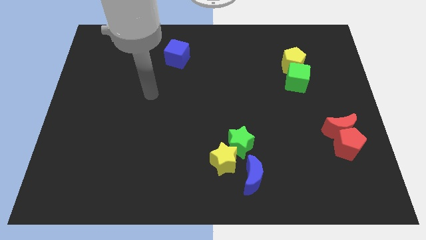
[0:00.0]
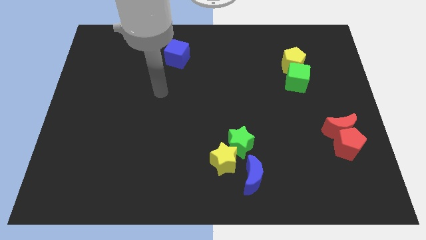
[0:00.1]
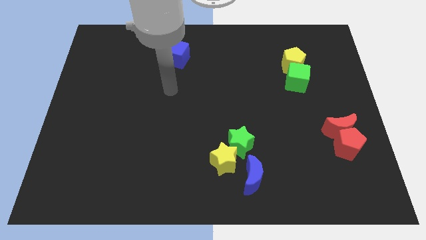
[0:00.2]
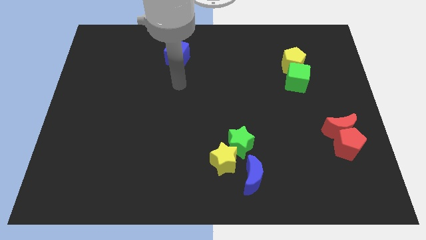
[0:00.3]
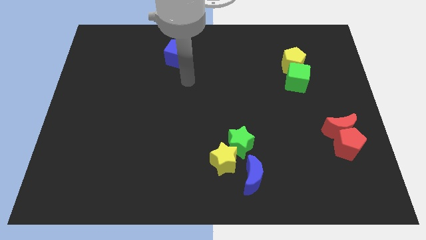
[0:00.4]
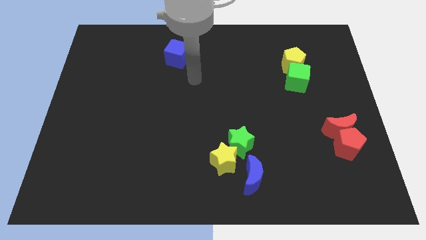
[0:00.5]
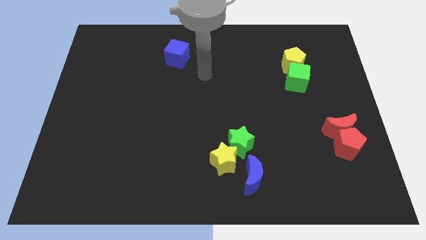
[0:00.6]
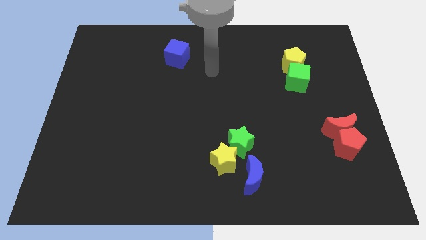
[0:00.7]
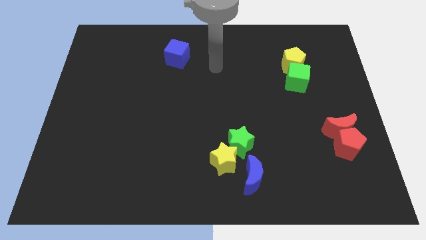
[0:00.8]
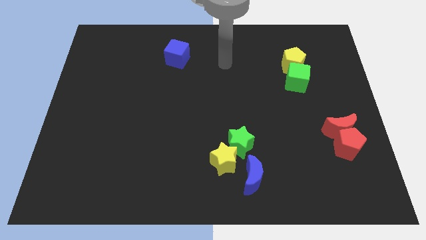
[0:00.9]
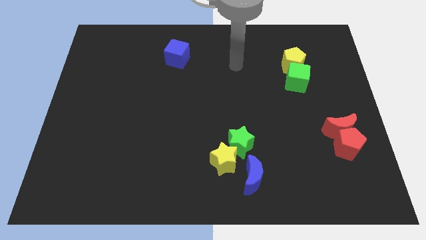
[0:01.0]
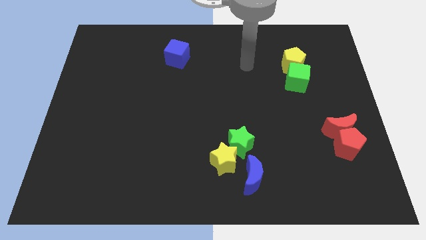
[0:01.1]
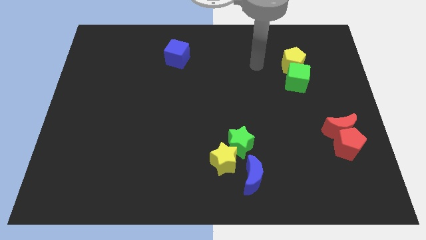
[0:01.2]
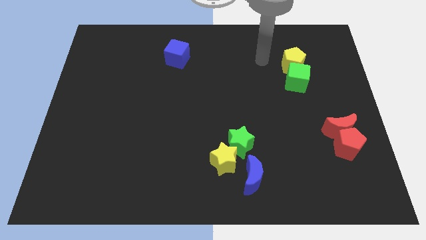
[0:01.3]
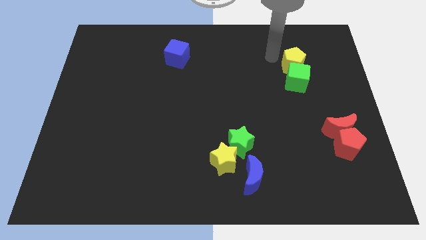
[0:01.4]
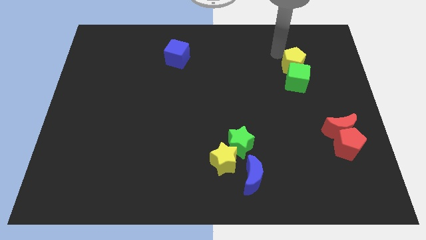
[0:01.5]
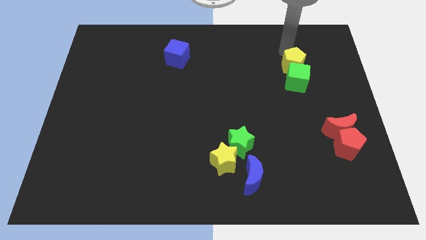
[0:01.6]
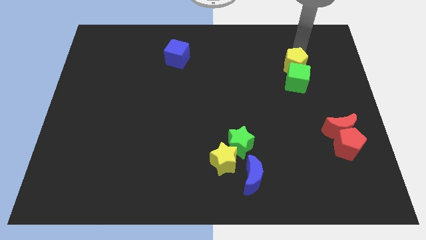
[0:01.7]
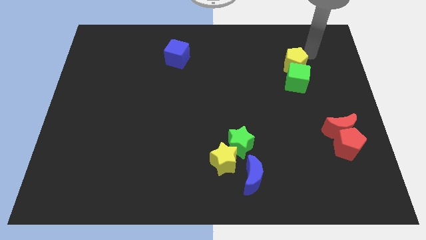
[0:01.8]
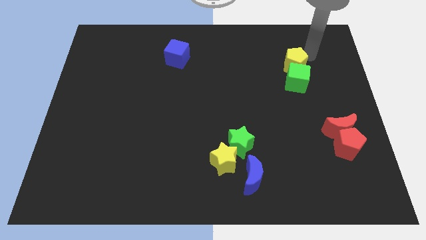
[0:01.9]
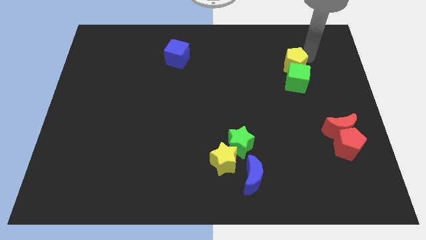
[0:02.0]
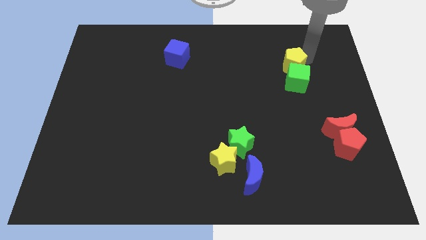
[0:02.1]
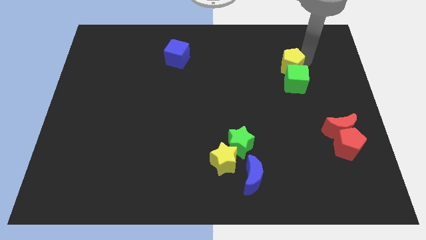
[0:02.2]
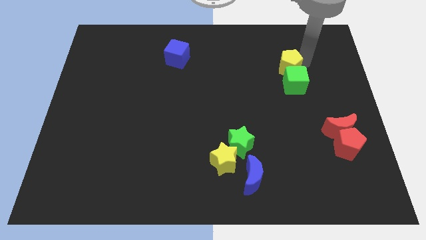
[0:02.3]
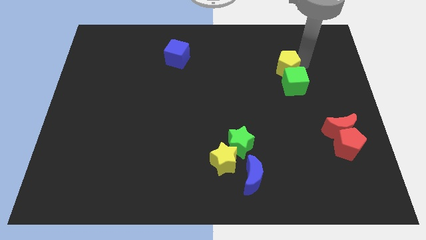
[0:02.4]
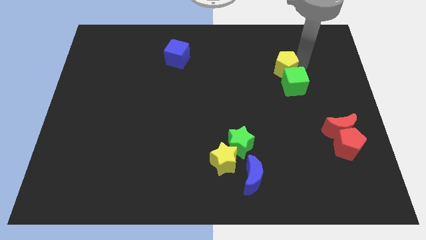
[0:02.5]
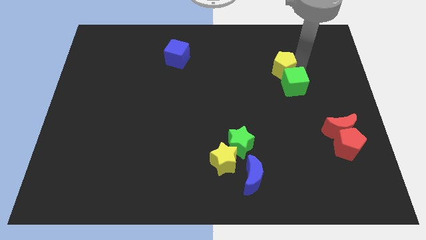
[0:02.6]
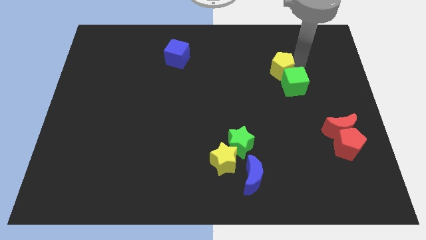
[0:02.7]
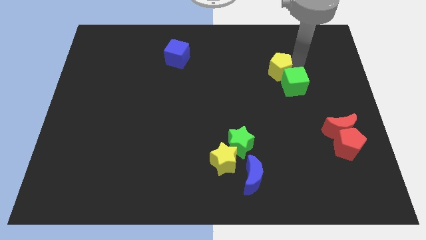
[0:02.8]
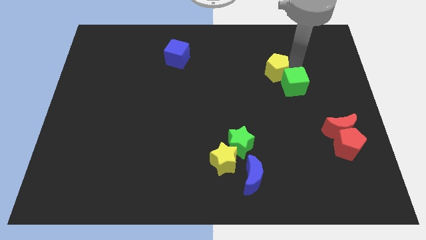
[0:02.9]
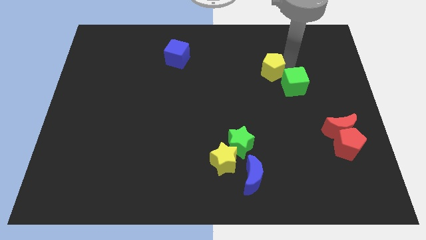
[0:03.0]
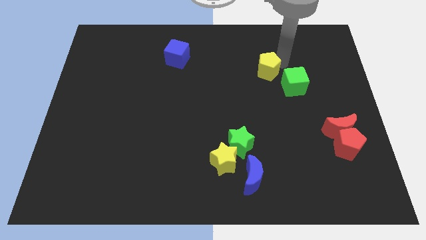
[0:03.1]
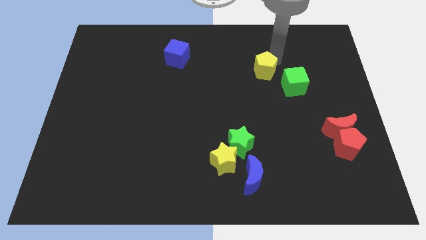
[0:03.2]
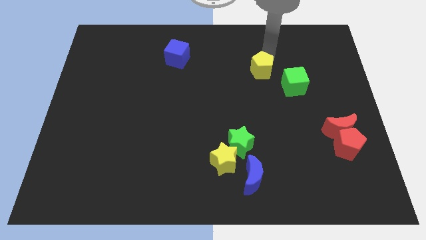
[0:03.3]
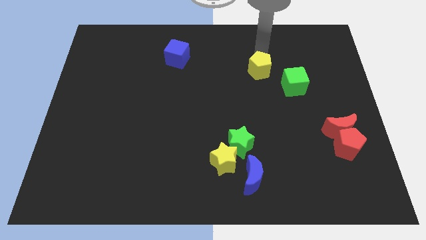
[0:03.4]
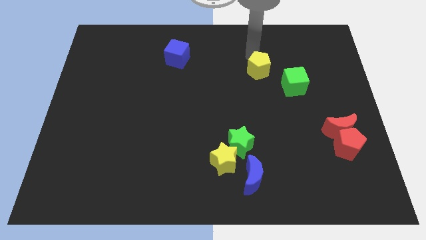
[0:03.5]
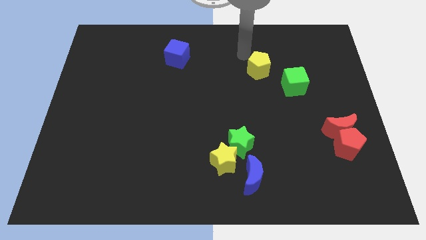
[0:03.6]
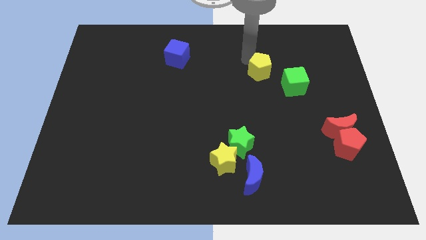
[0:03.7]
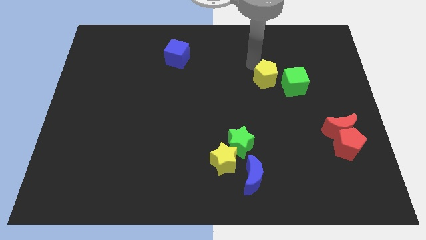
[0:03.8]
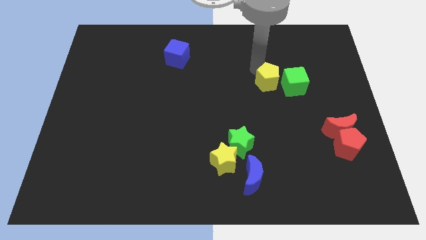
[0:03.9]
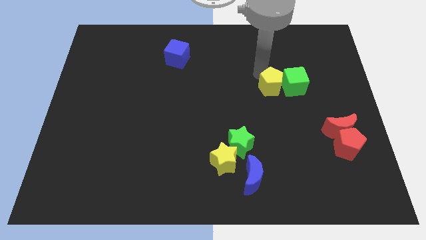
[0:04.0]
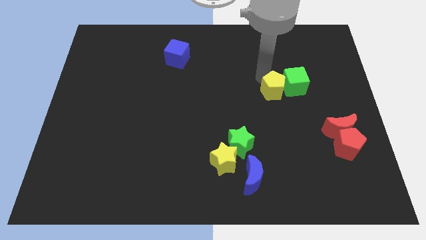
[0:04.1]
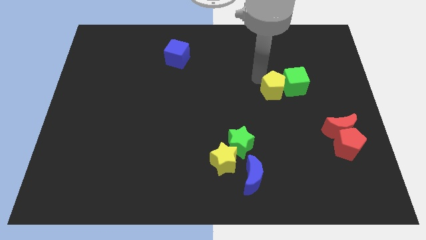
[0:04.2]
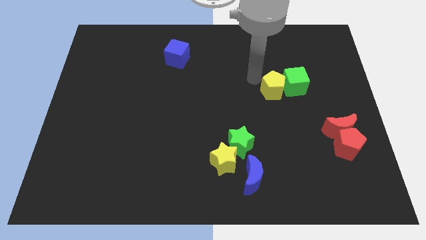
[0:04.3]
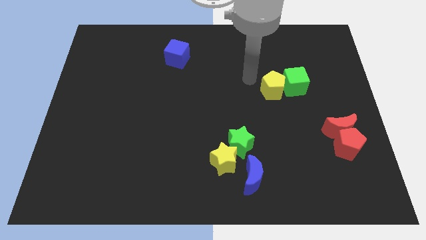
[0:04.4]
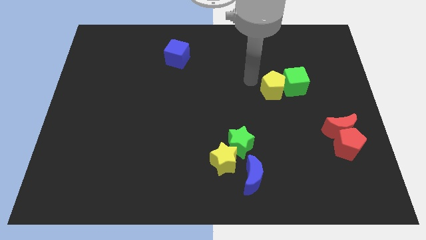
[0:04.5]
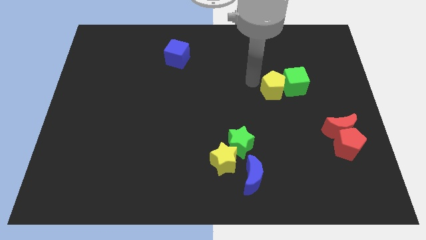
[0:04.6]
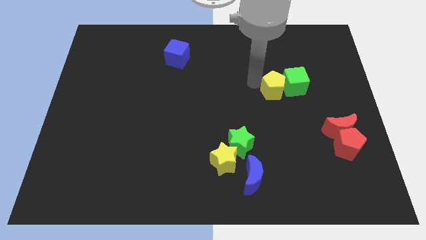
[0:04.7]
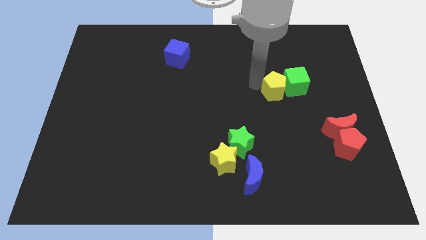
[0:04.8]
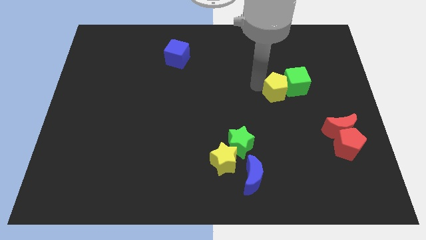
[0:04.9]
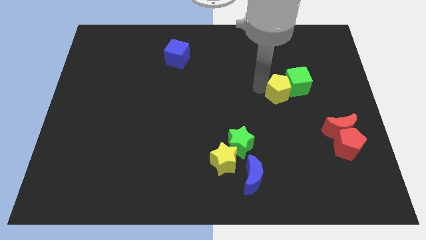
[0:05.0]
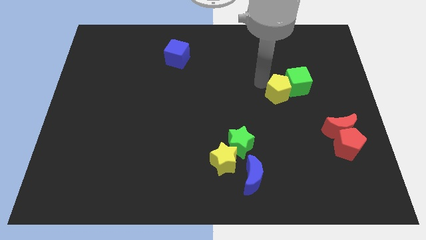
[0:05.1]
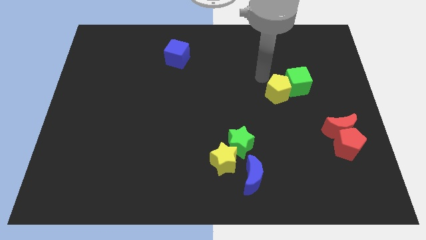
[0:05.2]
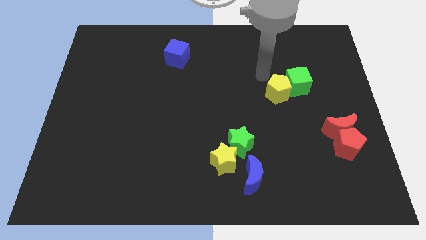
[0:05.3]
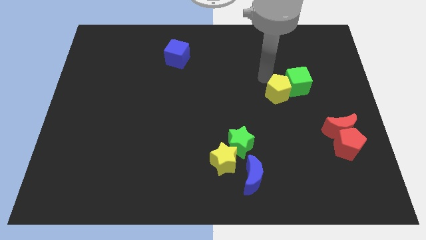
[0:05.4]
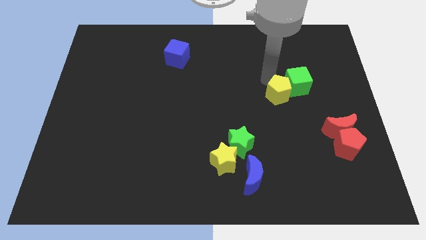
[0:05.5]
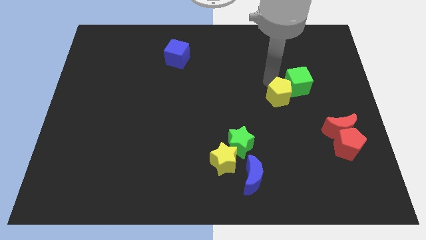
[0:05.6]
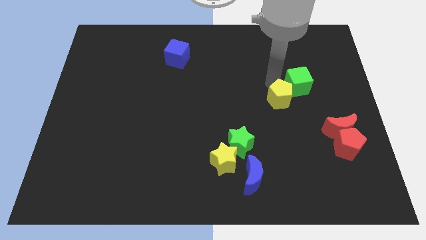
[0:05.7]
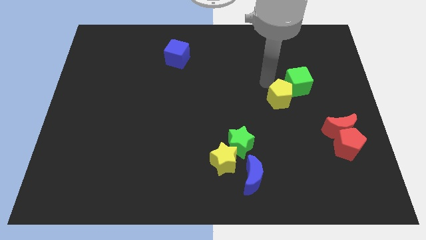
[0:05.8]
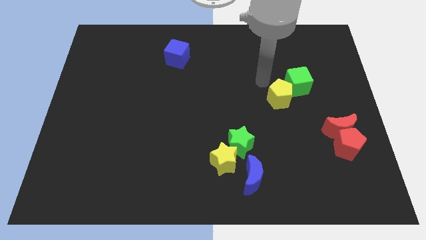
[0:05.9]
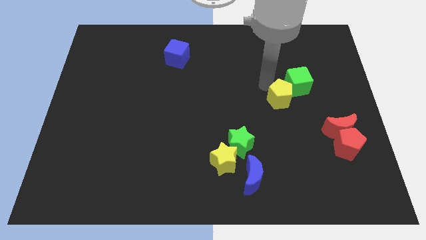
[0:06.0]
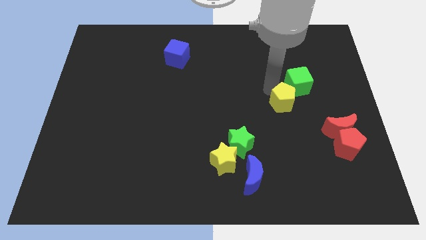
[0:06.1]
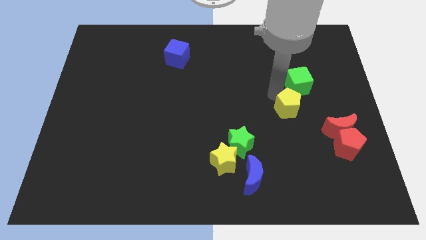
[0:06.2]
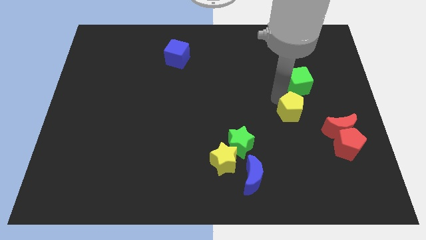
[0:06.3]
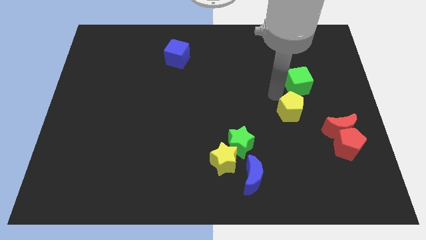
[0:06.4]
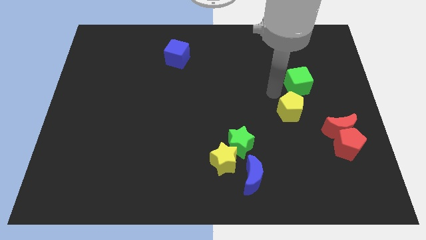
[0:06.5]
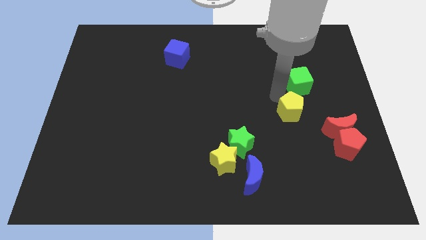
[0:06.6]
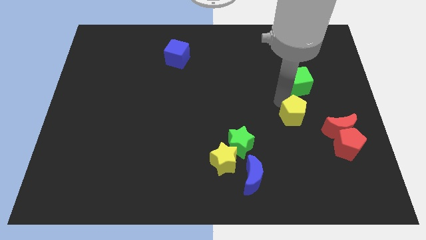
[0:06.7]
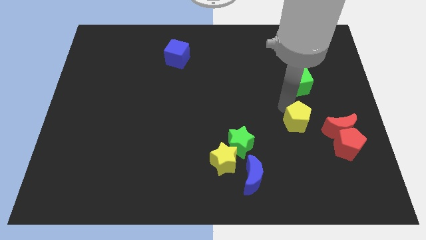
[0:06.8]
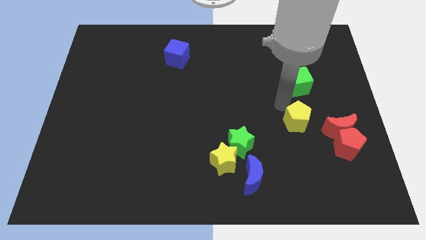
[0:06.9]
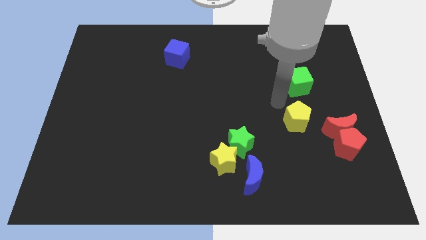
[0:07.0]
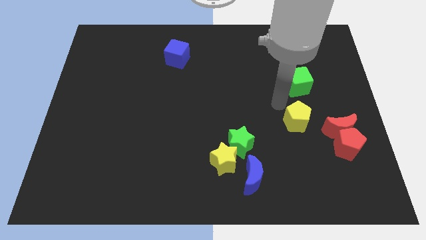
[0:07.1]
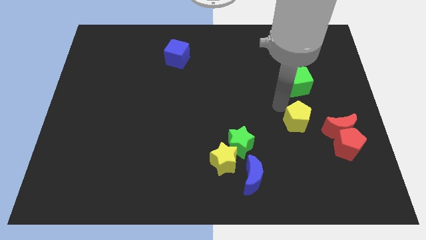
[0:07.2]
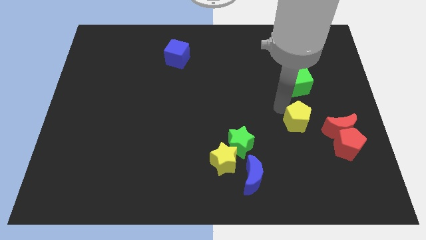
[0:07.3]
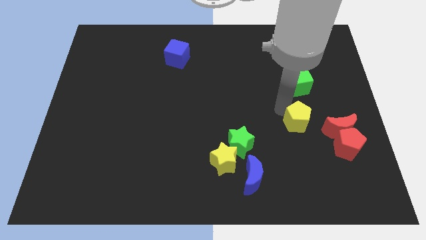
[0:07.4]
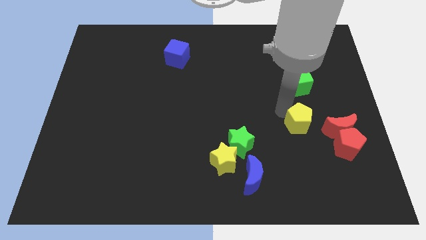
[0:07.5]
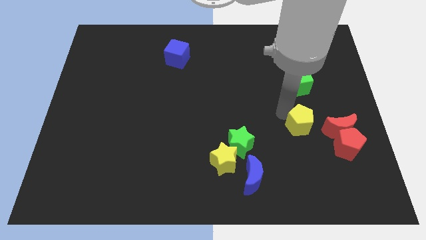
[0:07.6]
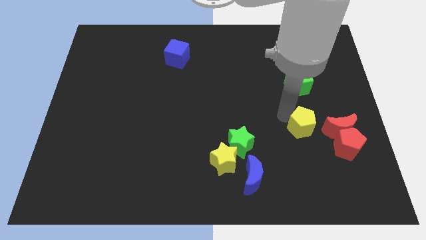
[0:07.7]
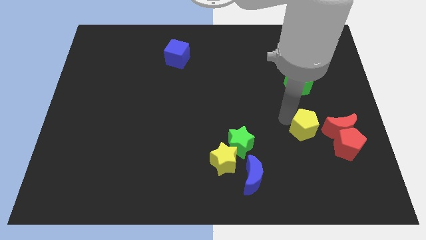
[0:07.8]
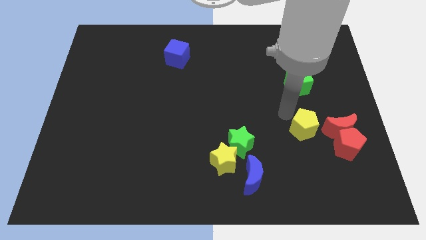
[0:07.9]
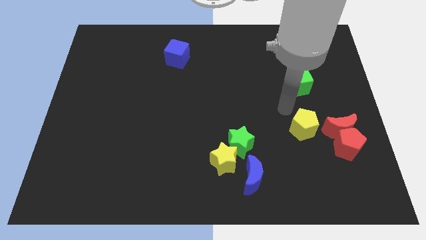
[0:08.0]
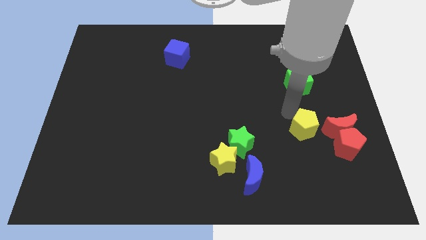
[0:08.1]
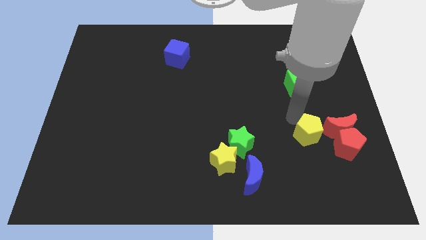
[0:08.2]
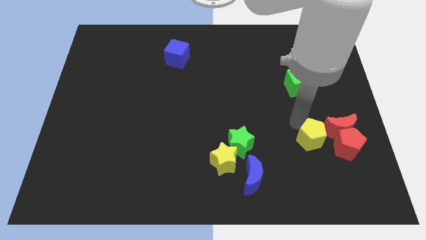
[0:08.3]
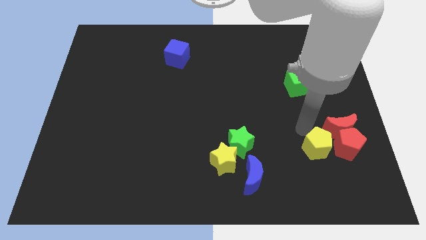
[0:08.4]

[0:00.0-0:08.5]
move the yellow pentagon diagonally down and to the left of the red pentagon
